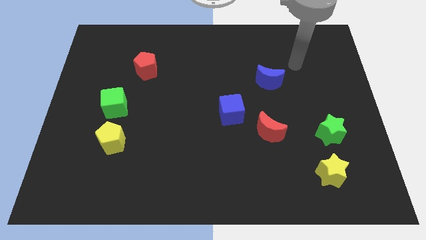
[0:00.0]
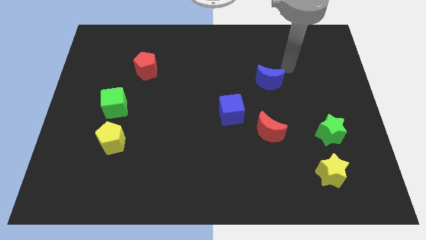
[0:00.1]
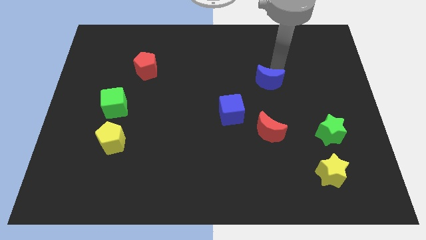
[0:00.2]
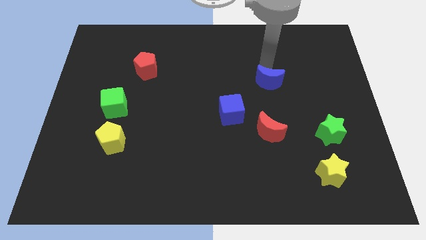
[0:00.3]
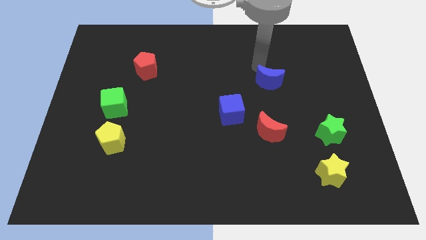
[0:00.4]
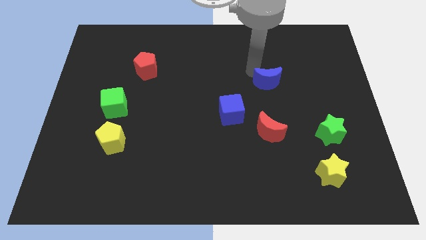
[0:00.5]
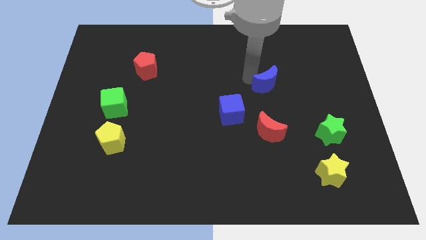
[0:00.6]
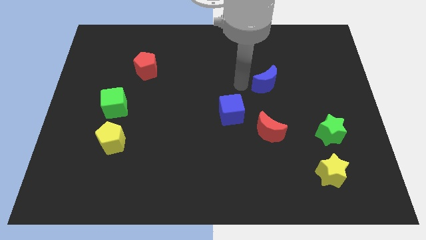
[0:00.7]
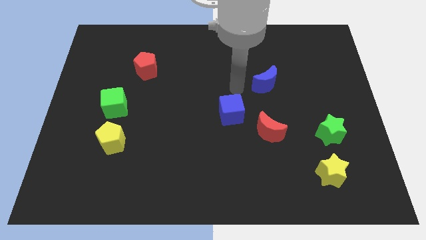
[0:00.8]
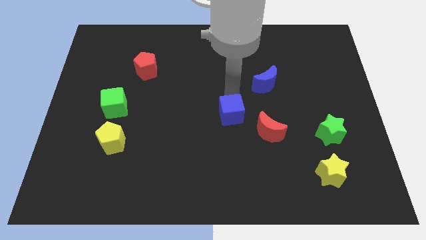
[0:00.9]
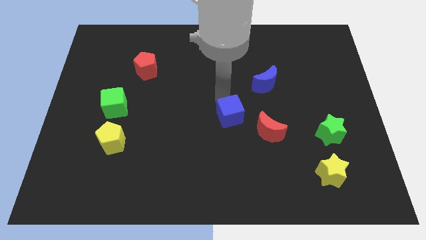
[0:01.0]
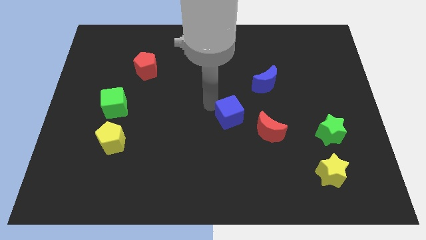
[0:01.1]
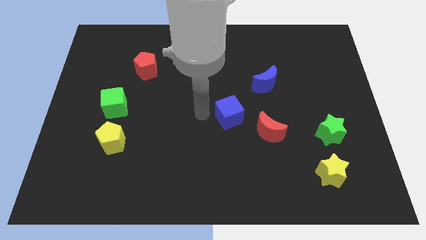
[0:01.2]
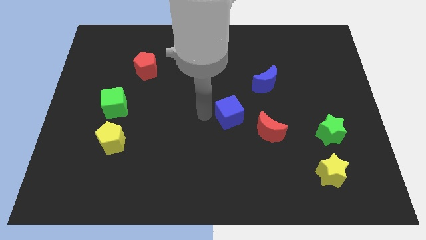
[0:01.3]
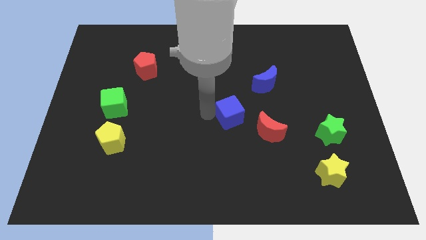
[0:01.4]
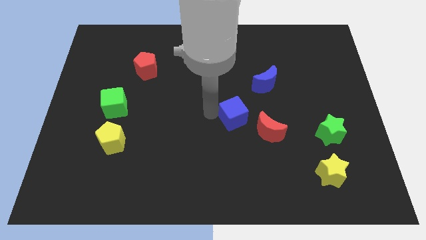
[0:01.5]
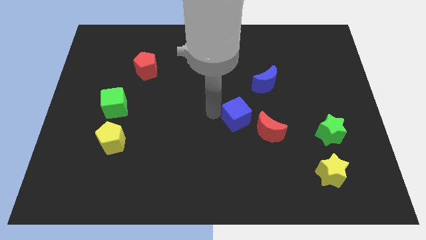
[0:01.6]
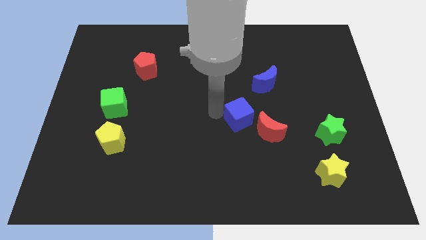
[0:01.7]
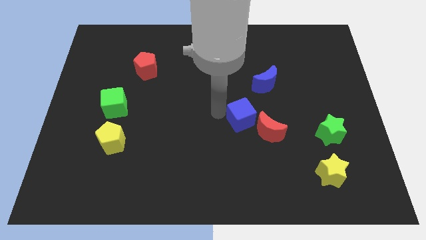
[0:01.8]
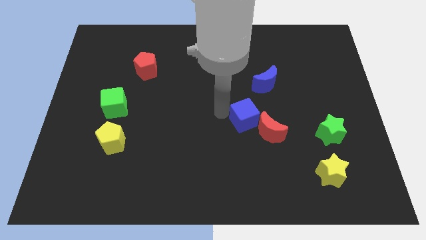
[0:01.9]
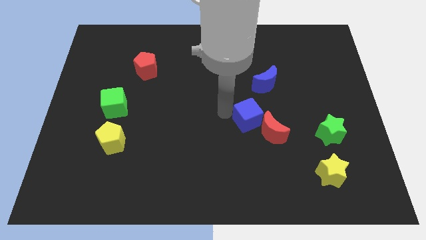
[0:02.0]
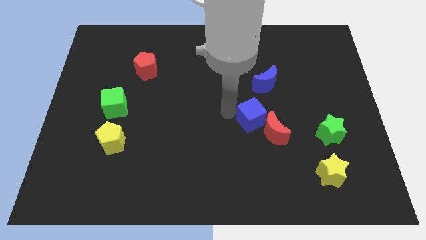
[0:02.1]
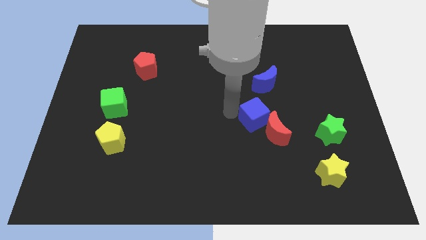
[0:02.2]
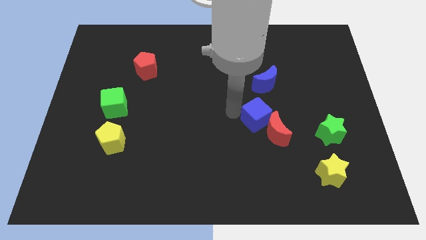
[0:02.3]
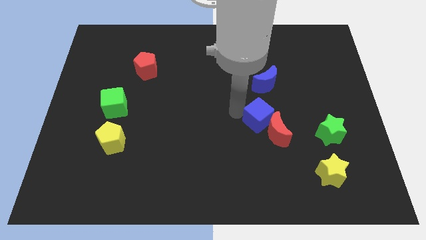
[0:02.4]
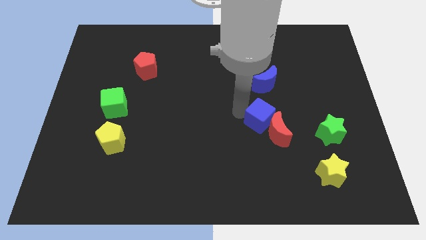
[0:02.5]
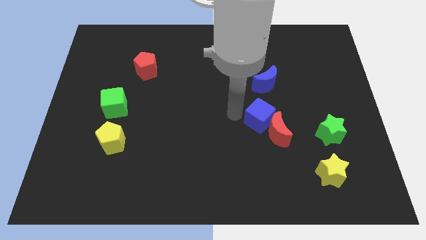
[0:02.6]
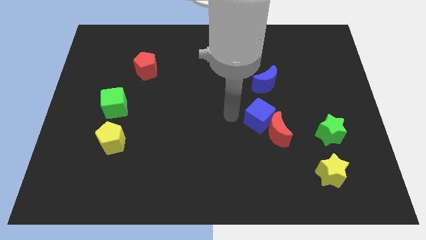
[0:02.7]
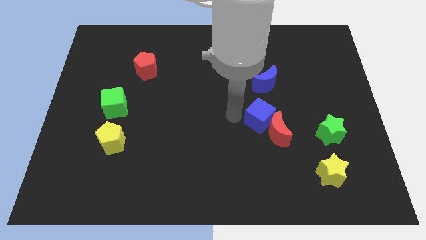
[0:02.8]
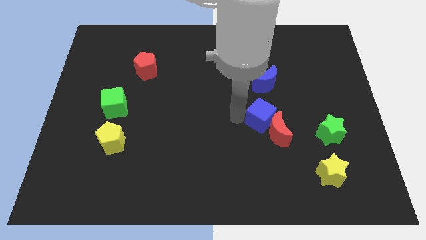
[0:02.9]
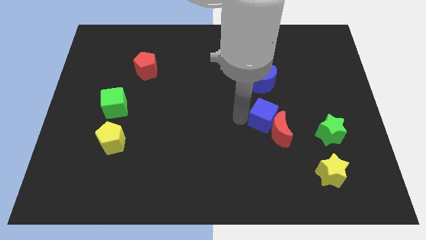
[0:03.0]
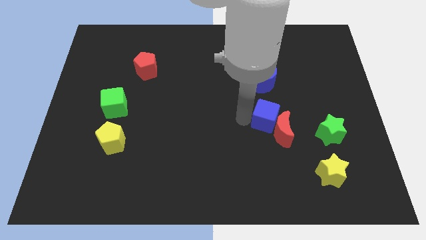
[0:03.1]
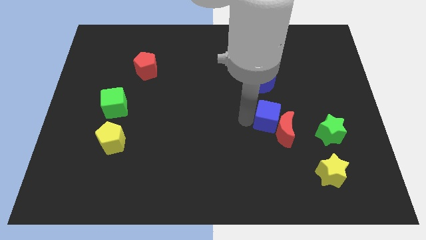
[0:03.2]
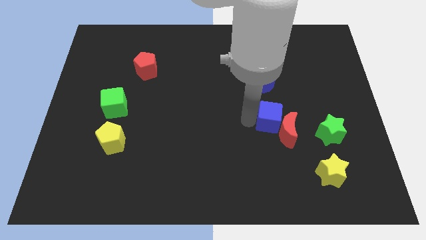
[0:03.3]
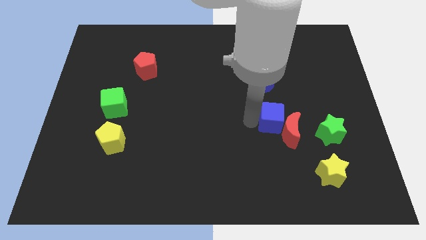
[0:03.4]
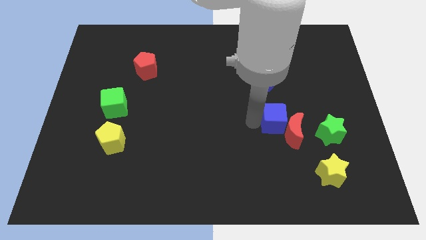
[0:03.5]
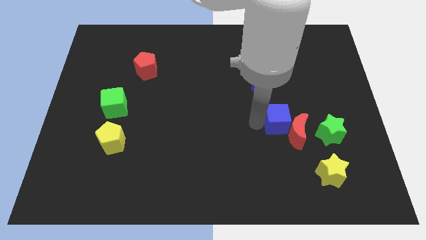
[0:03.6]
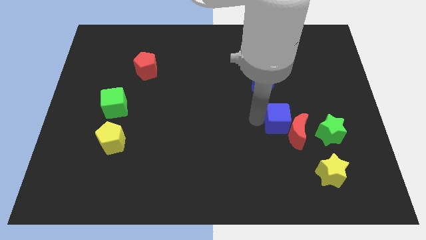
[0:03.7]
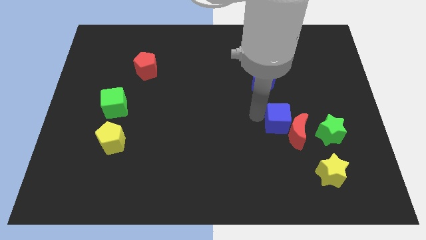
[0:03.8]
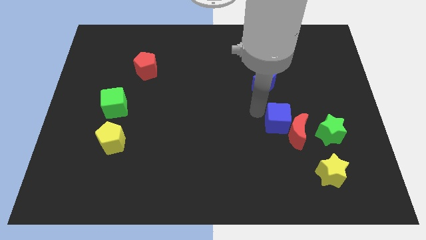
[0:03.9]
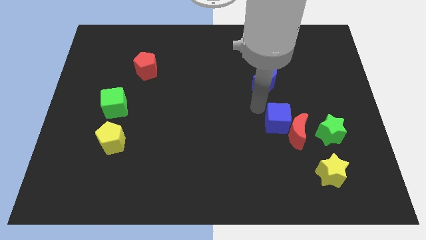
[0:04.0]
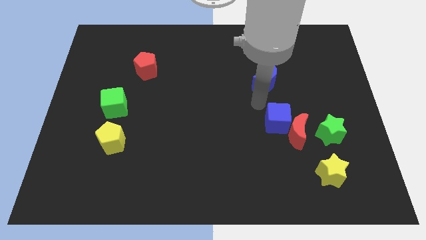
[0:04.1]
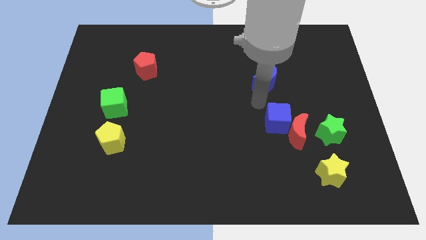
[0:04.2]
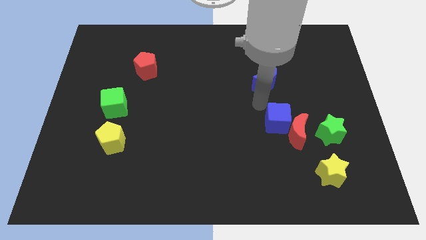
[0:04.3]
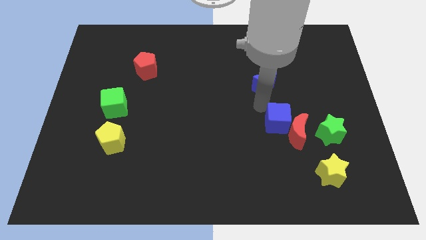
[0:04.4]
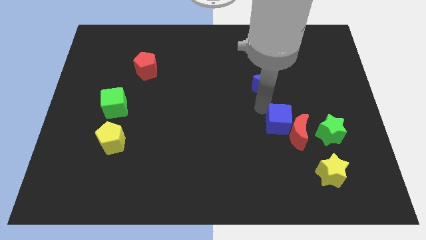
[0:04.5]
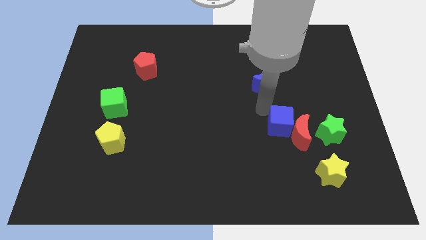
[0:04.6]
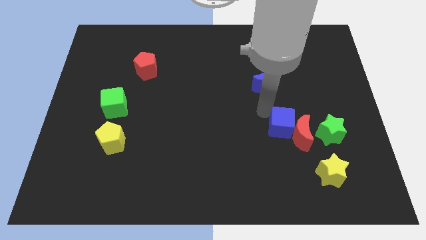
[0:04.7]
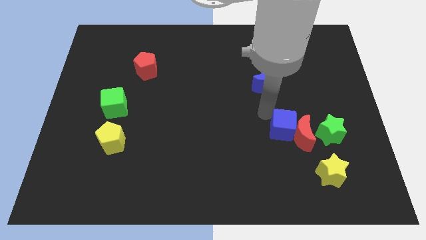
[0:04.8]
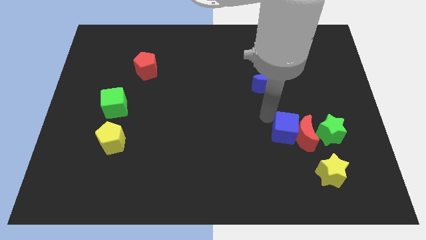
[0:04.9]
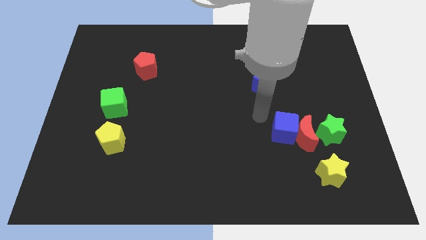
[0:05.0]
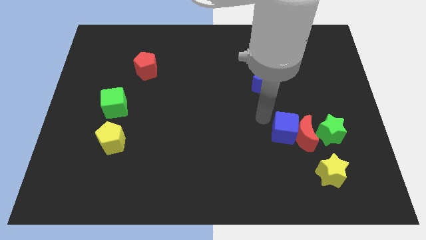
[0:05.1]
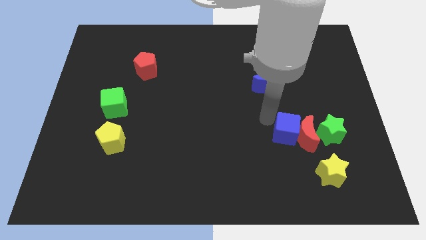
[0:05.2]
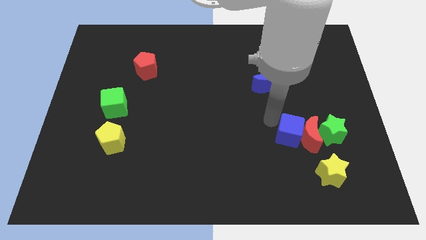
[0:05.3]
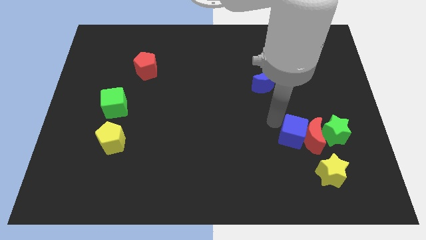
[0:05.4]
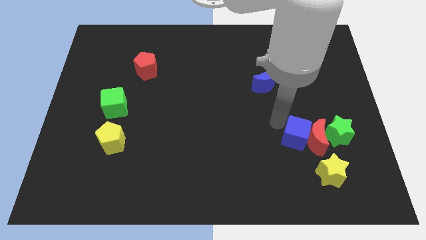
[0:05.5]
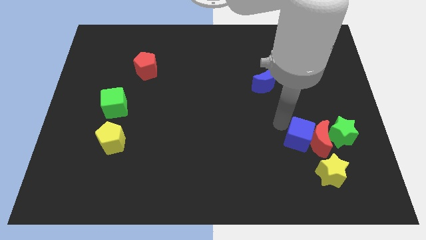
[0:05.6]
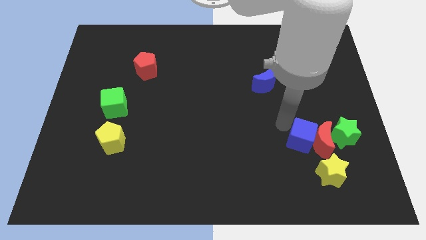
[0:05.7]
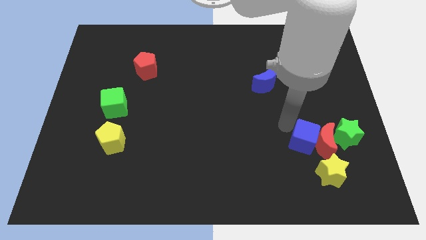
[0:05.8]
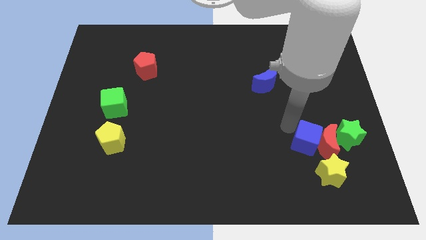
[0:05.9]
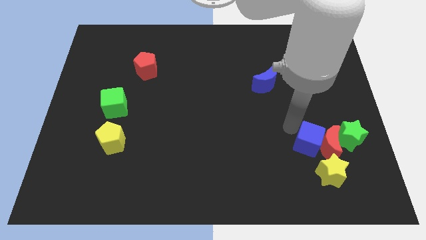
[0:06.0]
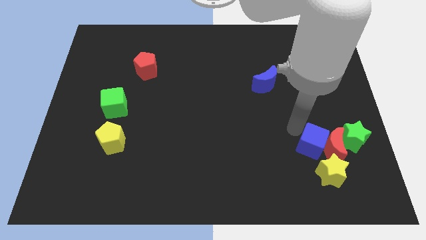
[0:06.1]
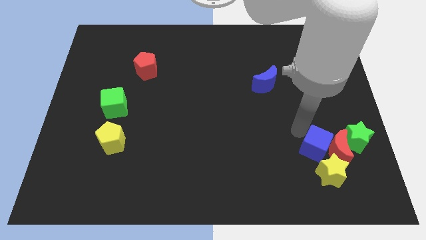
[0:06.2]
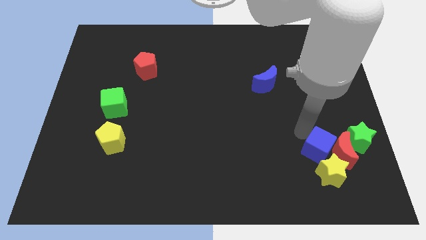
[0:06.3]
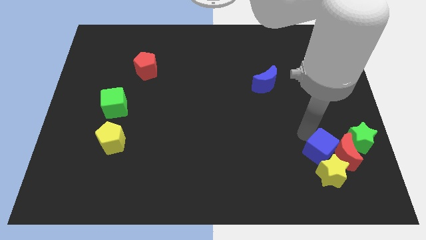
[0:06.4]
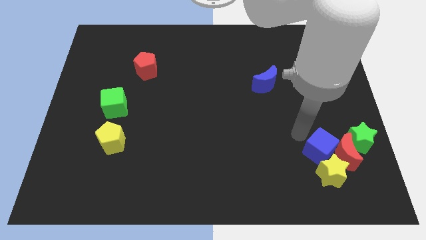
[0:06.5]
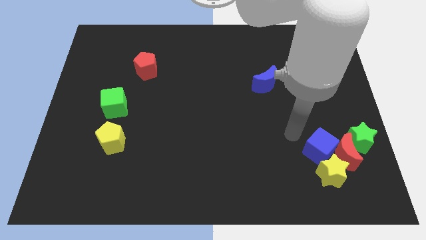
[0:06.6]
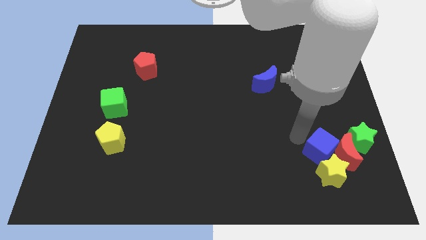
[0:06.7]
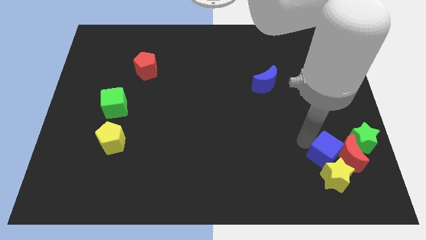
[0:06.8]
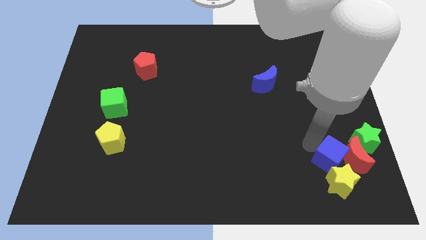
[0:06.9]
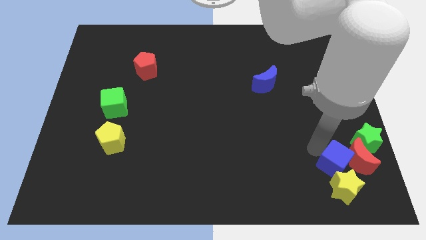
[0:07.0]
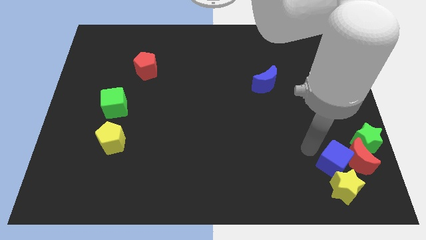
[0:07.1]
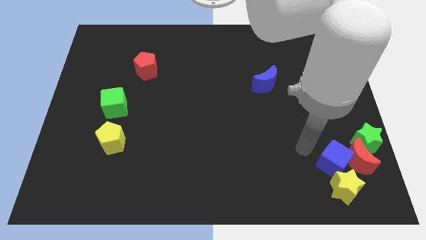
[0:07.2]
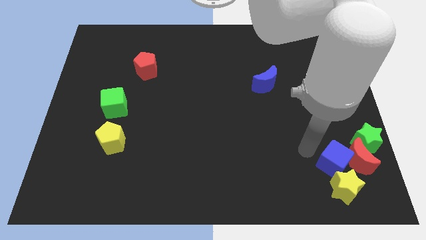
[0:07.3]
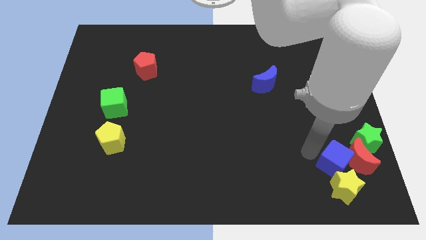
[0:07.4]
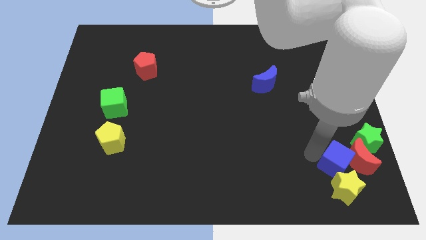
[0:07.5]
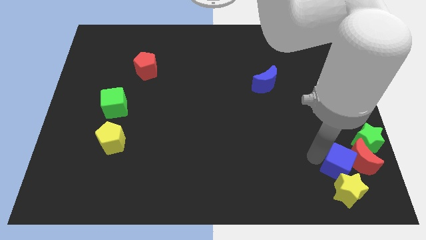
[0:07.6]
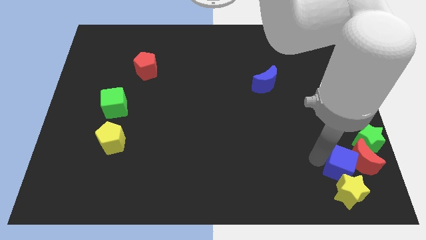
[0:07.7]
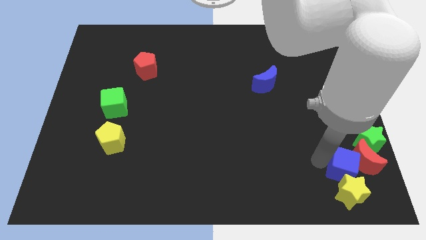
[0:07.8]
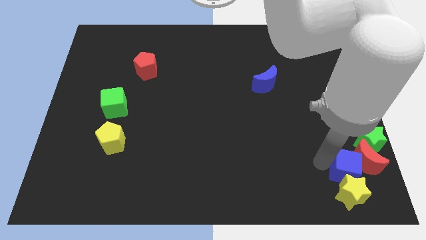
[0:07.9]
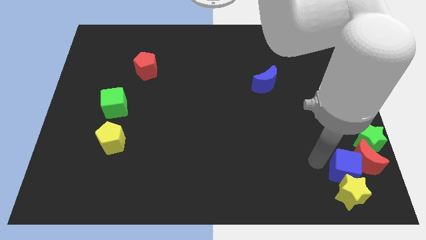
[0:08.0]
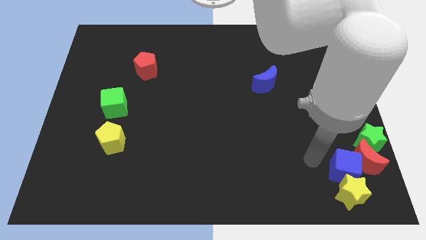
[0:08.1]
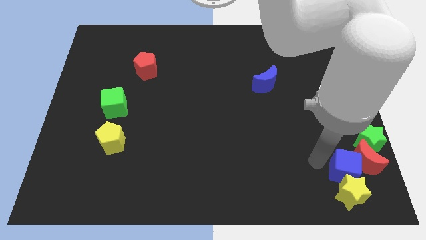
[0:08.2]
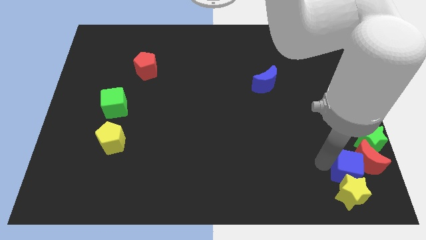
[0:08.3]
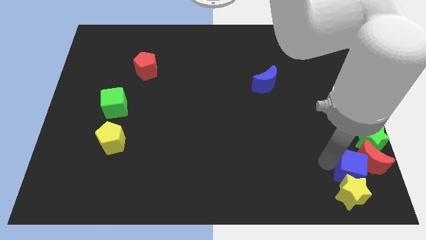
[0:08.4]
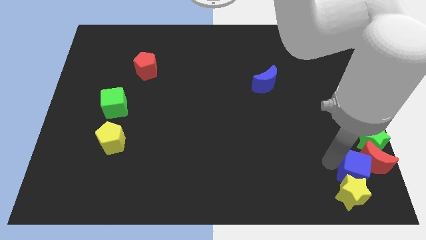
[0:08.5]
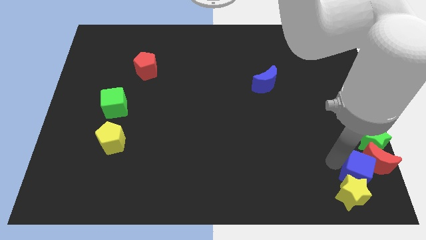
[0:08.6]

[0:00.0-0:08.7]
push the blue cube to the bottom right
